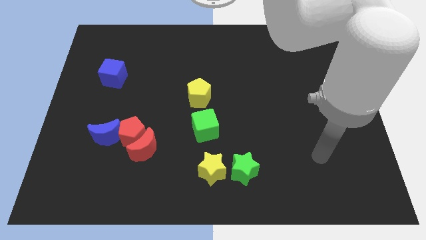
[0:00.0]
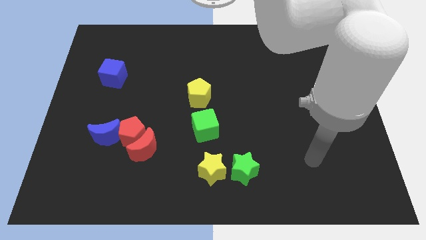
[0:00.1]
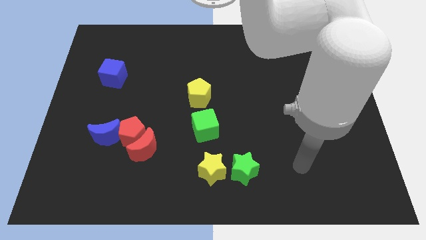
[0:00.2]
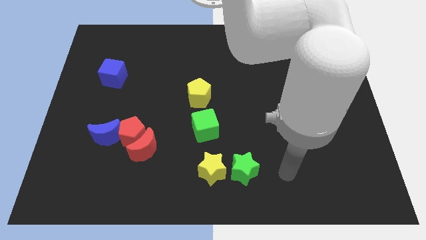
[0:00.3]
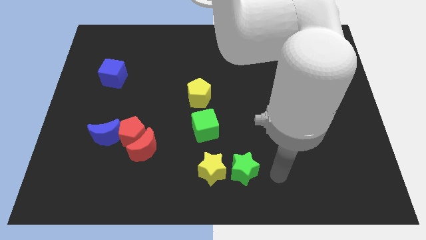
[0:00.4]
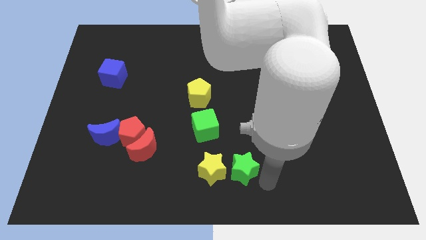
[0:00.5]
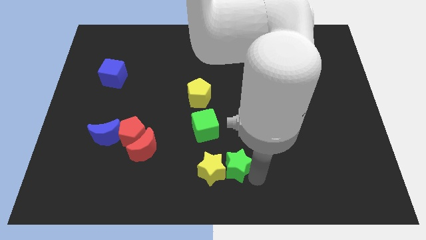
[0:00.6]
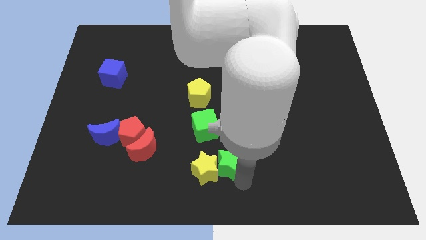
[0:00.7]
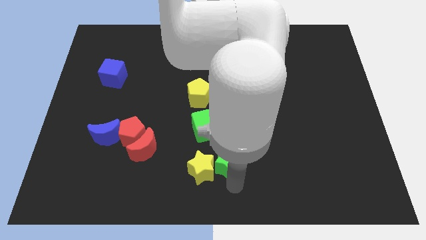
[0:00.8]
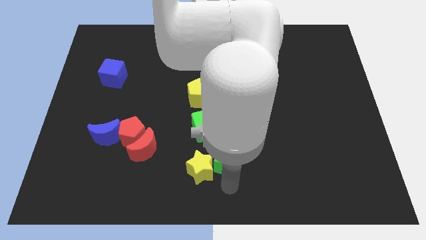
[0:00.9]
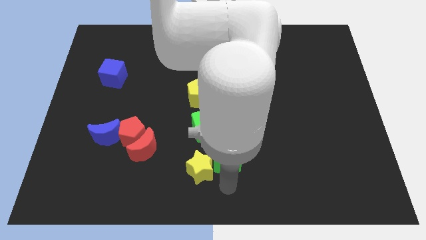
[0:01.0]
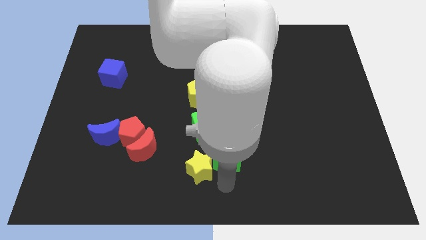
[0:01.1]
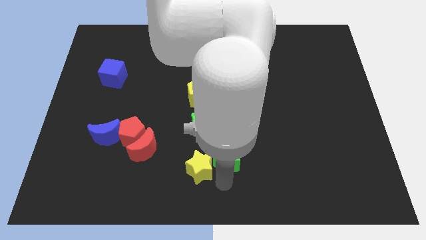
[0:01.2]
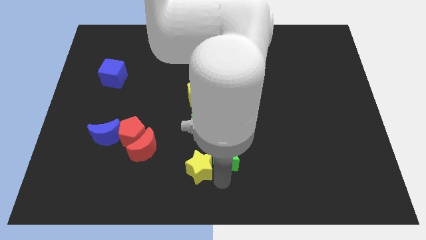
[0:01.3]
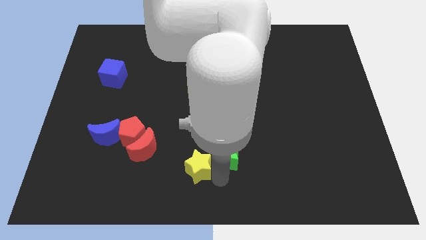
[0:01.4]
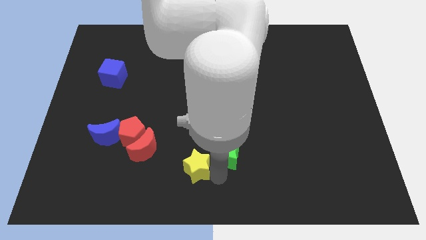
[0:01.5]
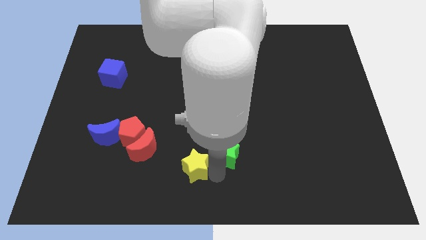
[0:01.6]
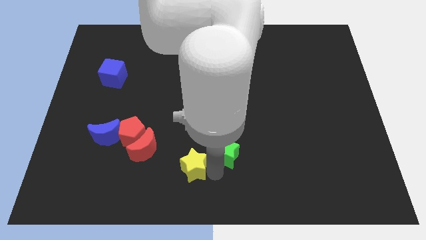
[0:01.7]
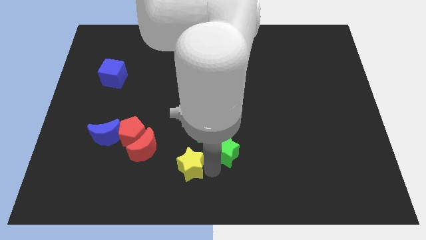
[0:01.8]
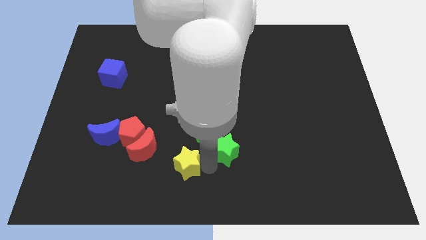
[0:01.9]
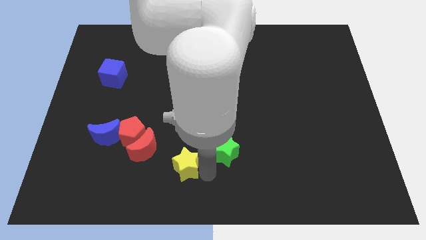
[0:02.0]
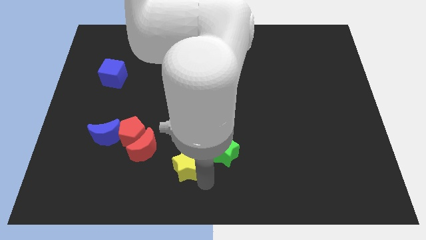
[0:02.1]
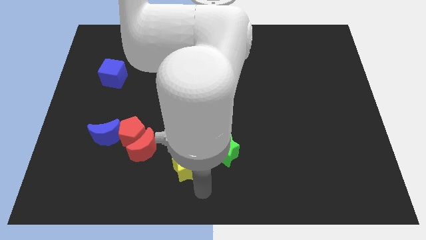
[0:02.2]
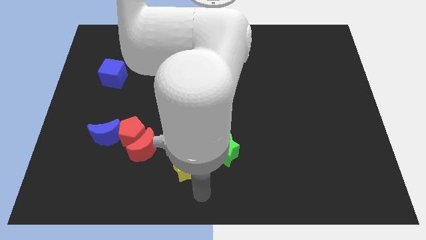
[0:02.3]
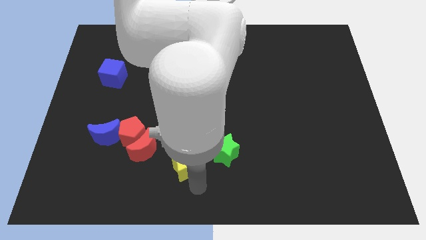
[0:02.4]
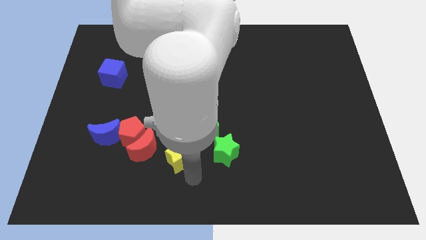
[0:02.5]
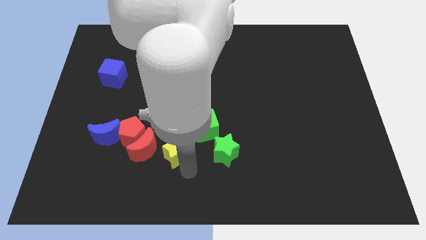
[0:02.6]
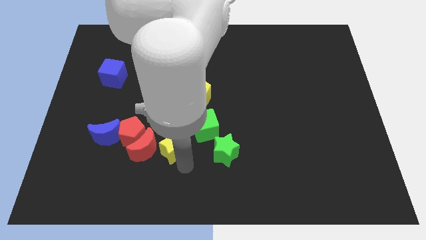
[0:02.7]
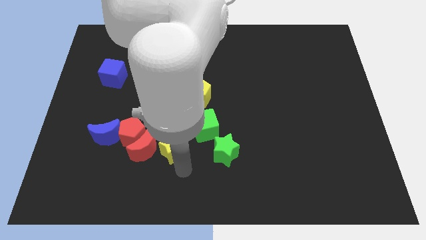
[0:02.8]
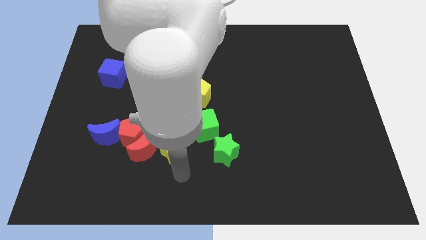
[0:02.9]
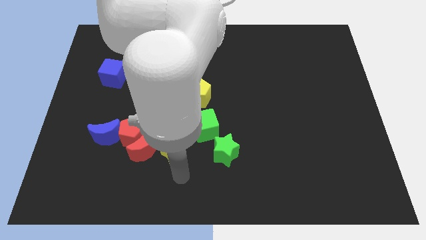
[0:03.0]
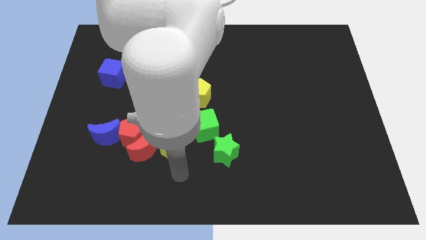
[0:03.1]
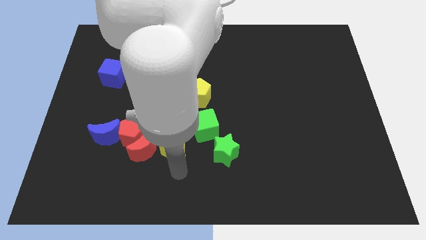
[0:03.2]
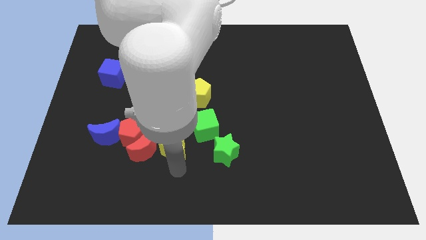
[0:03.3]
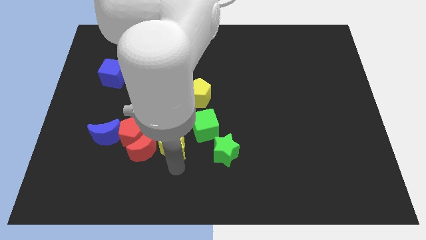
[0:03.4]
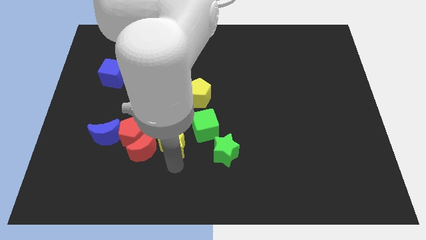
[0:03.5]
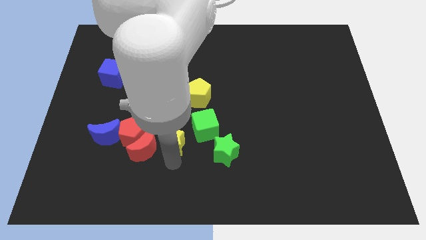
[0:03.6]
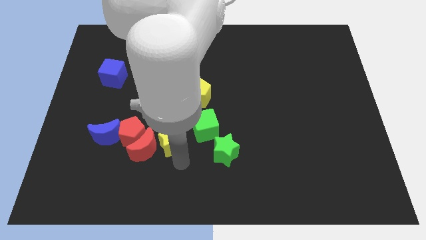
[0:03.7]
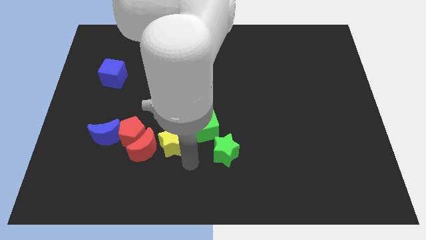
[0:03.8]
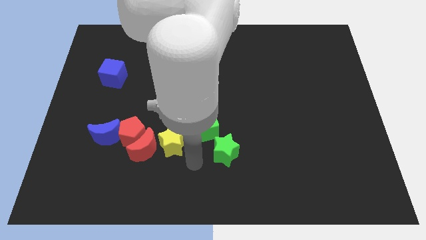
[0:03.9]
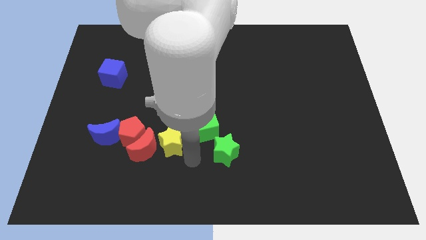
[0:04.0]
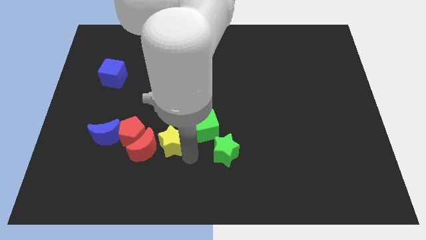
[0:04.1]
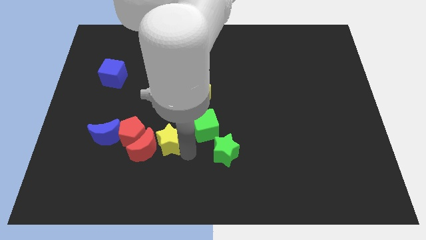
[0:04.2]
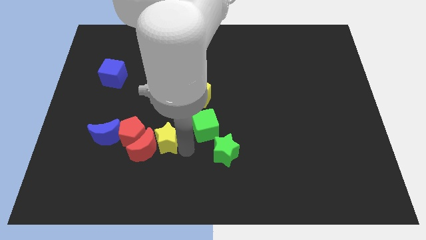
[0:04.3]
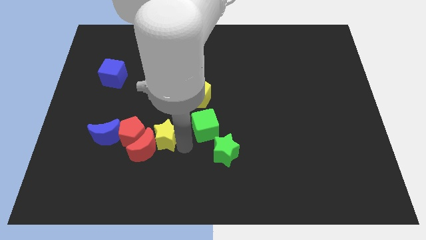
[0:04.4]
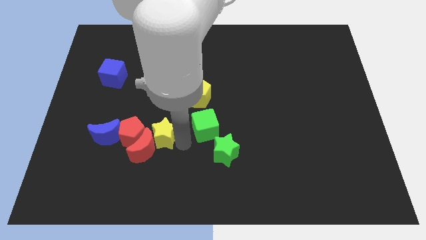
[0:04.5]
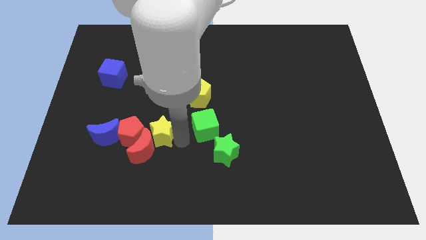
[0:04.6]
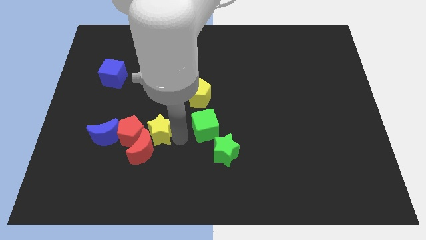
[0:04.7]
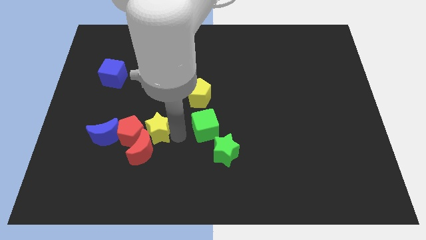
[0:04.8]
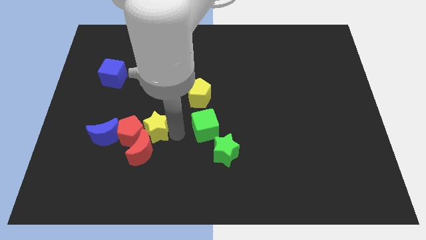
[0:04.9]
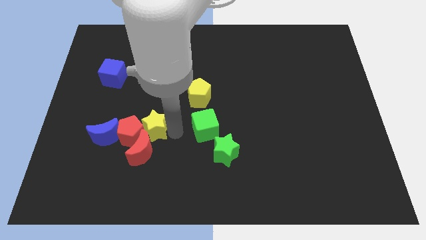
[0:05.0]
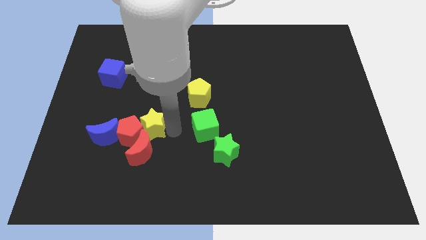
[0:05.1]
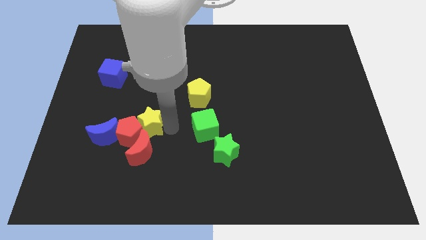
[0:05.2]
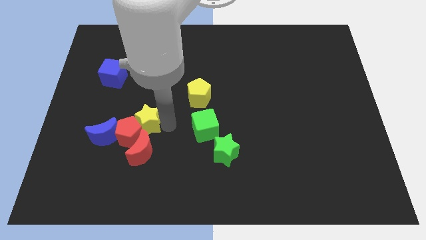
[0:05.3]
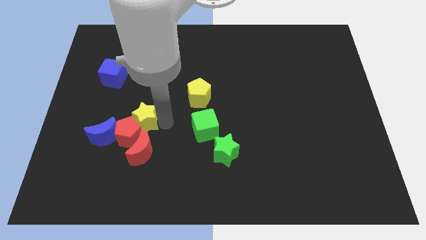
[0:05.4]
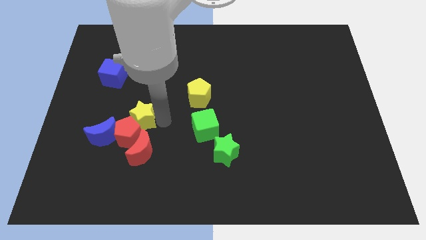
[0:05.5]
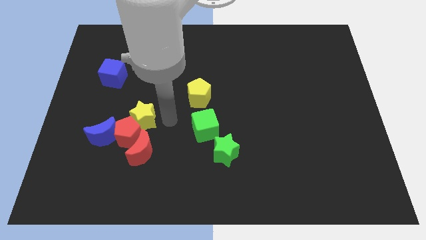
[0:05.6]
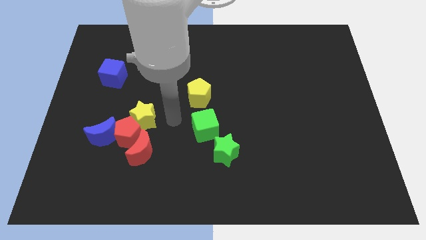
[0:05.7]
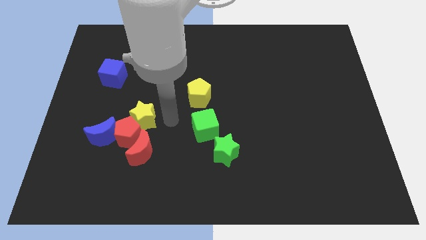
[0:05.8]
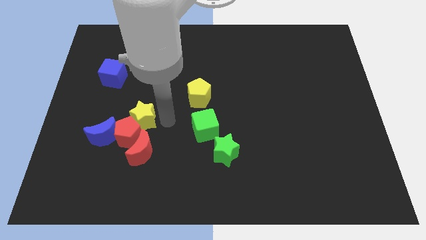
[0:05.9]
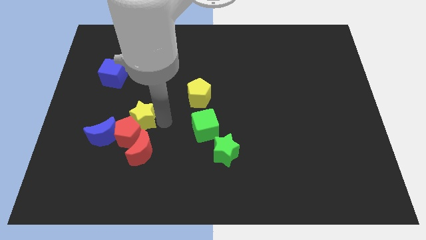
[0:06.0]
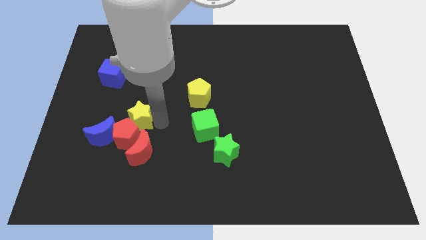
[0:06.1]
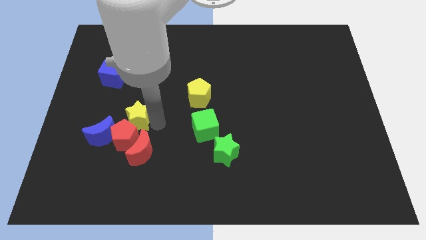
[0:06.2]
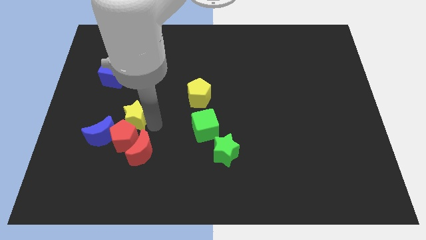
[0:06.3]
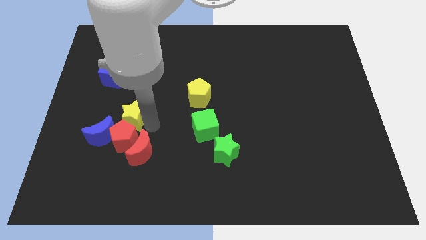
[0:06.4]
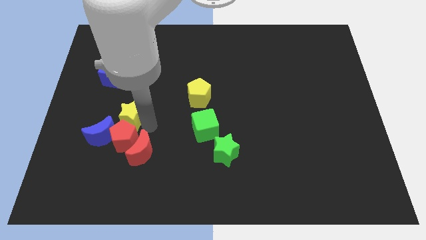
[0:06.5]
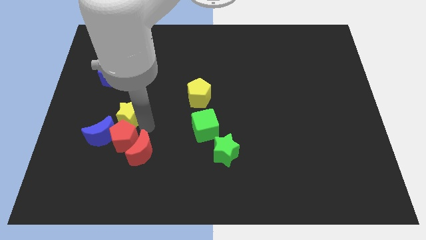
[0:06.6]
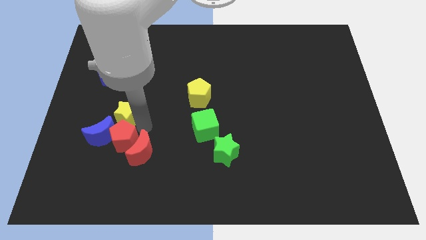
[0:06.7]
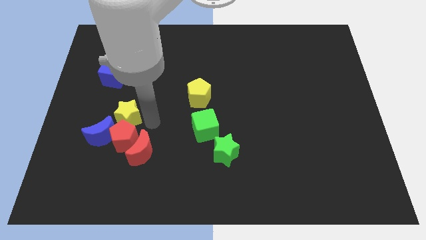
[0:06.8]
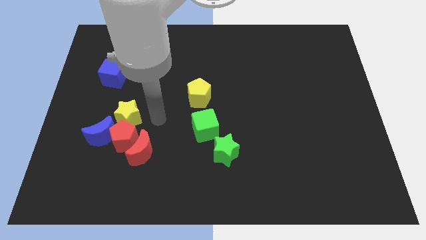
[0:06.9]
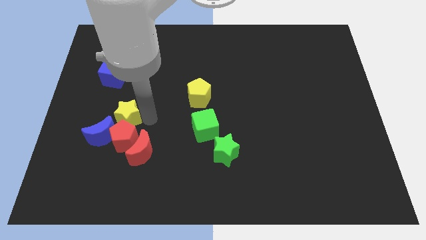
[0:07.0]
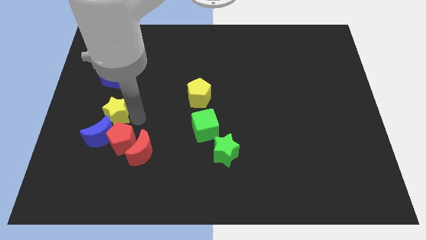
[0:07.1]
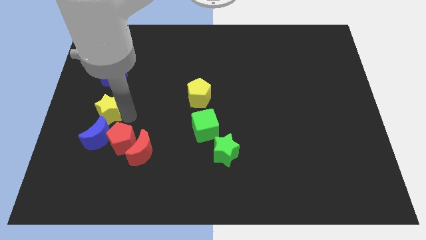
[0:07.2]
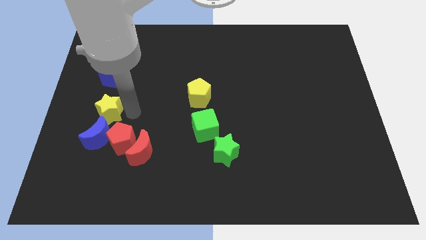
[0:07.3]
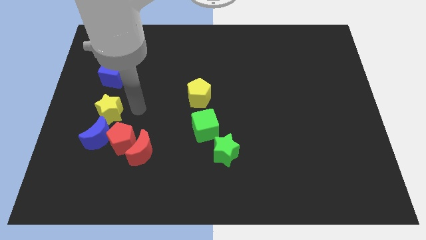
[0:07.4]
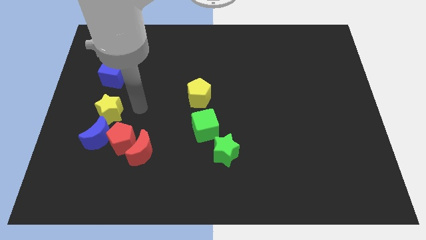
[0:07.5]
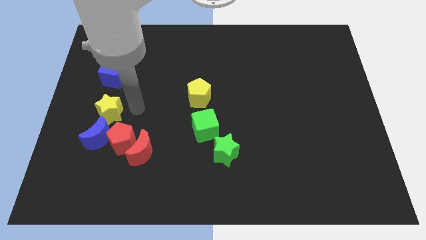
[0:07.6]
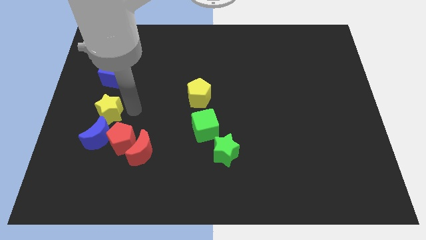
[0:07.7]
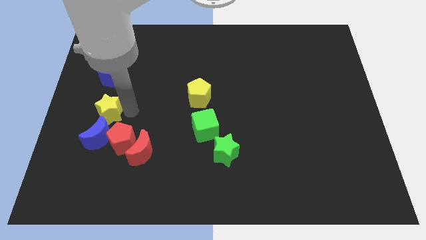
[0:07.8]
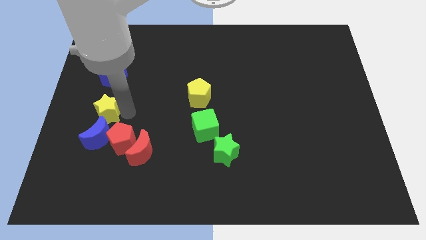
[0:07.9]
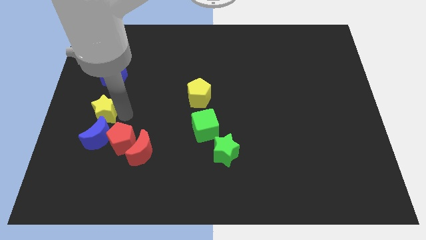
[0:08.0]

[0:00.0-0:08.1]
slide the yellow star to the top left side of the blue moon
